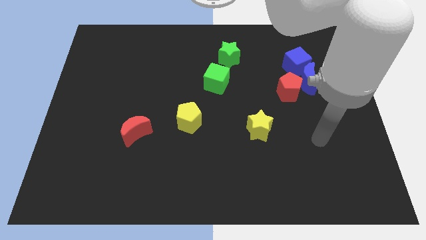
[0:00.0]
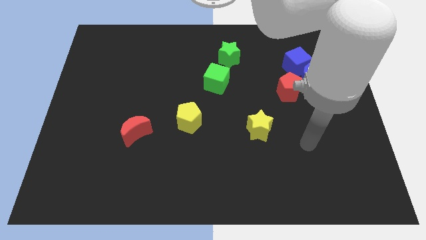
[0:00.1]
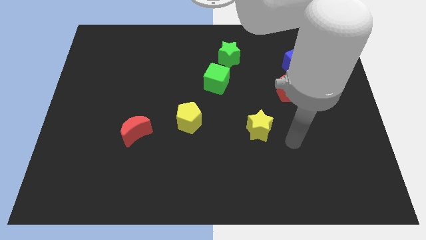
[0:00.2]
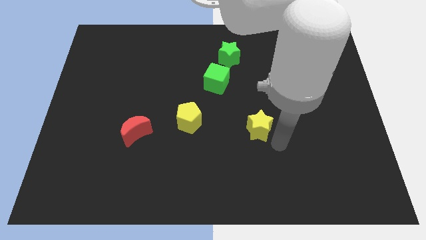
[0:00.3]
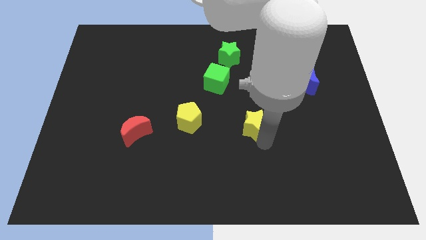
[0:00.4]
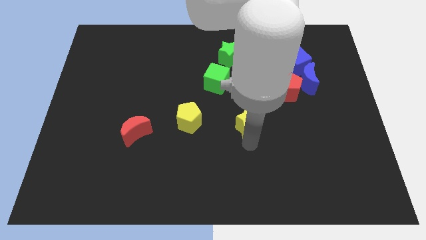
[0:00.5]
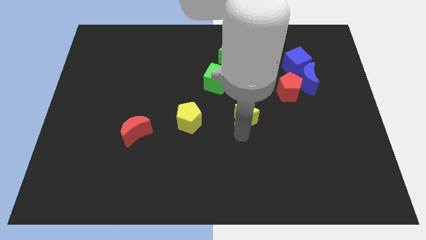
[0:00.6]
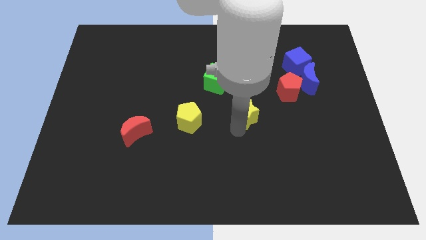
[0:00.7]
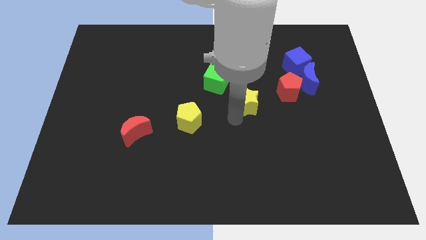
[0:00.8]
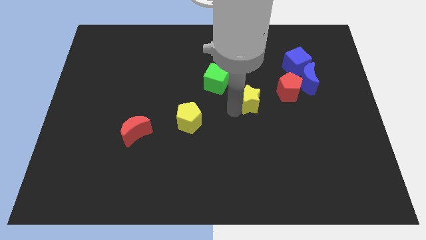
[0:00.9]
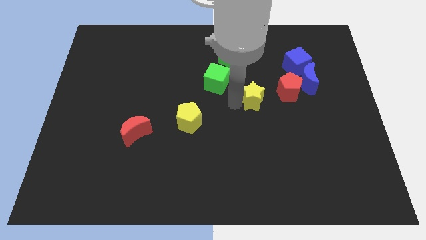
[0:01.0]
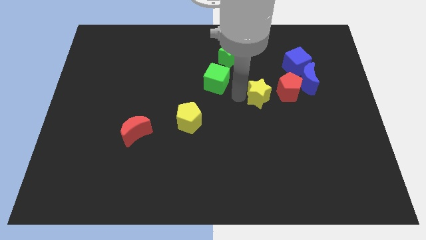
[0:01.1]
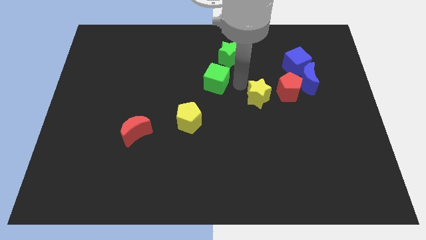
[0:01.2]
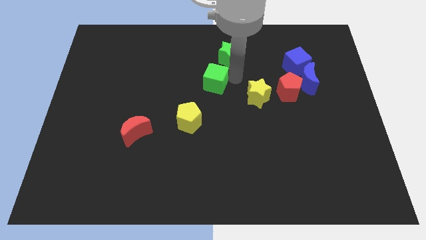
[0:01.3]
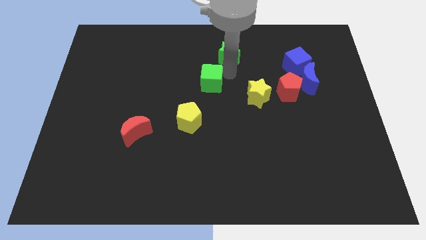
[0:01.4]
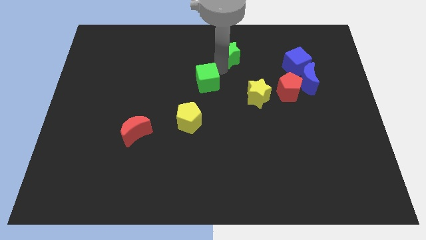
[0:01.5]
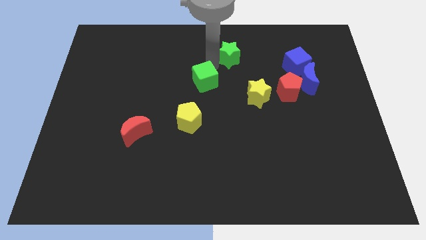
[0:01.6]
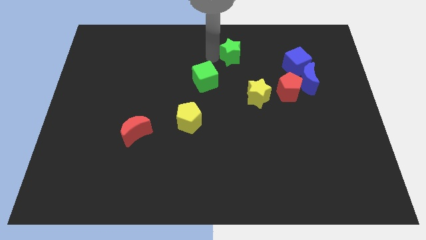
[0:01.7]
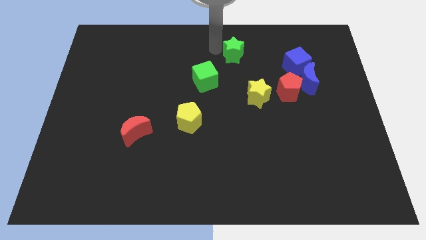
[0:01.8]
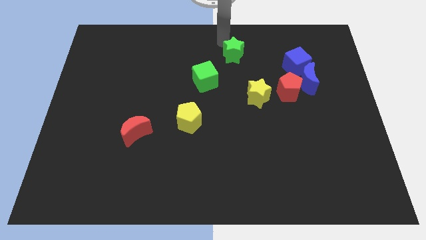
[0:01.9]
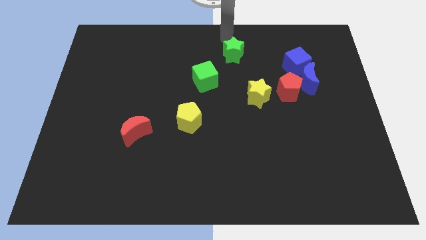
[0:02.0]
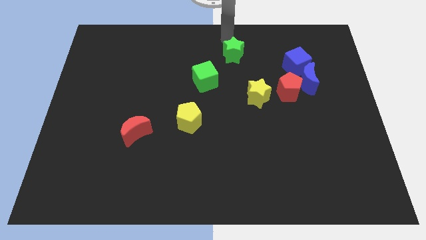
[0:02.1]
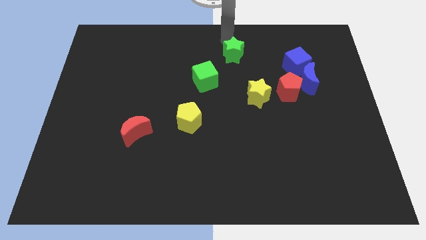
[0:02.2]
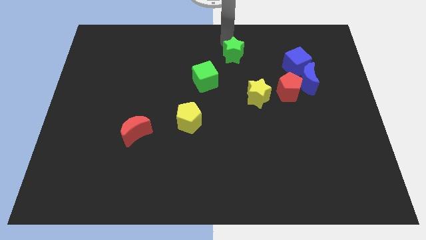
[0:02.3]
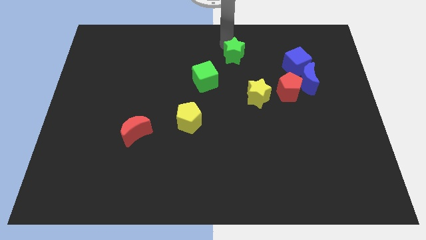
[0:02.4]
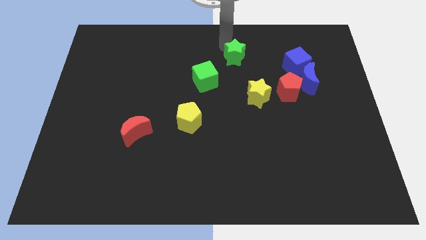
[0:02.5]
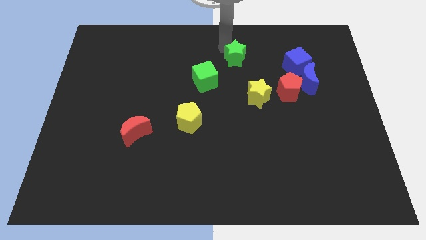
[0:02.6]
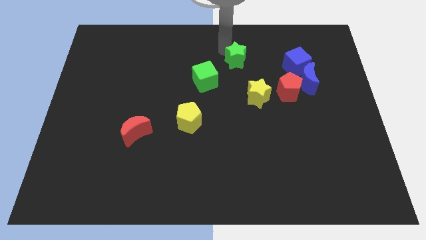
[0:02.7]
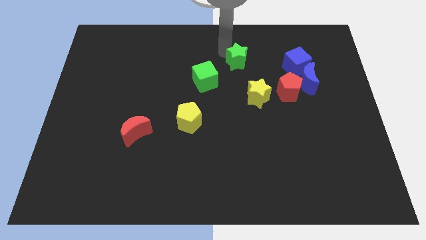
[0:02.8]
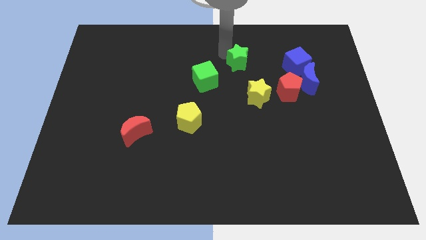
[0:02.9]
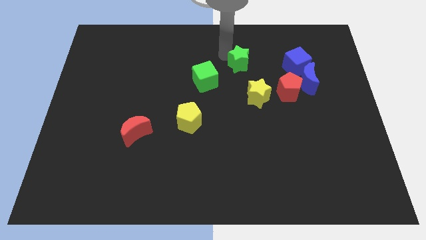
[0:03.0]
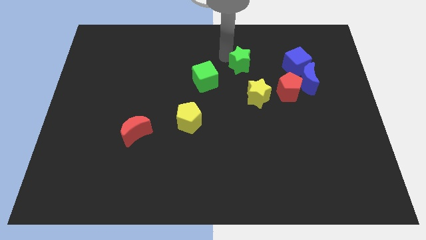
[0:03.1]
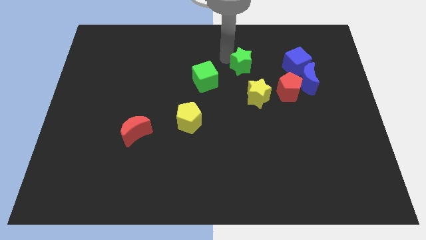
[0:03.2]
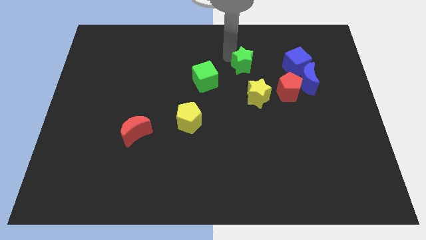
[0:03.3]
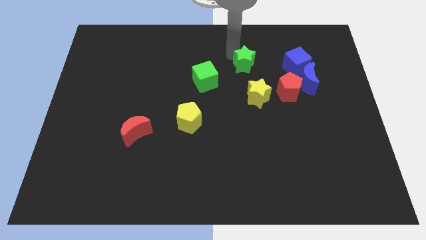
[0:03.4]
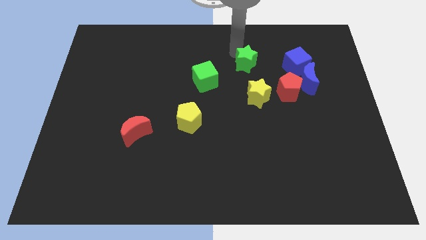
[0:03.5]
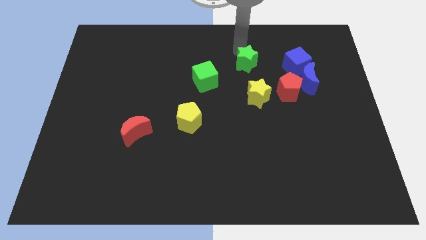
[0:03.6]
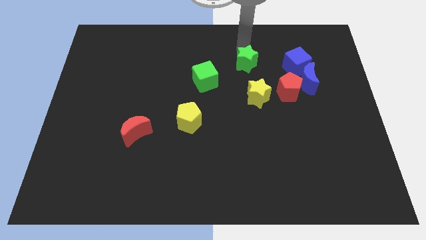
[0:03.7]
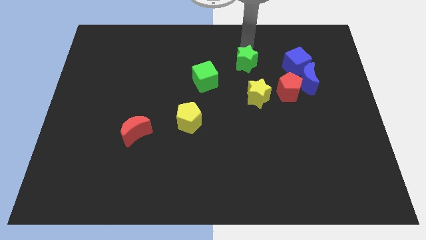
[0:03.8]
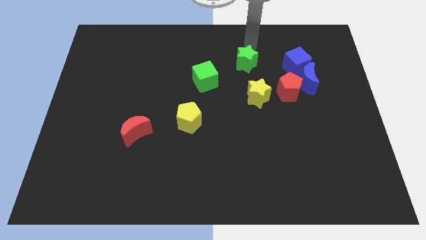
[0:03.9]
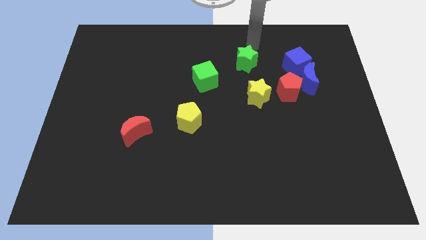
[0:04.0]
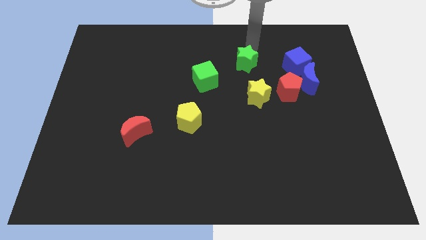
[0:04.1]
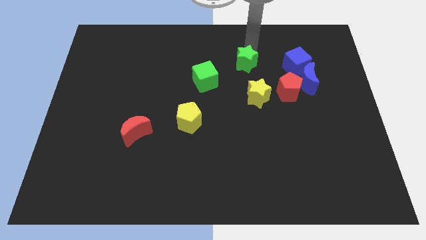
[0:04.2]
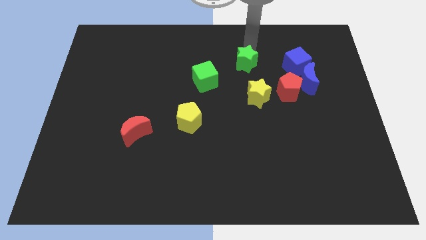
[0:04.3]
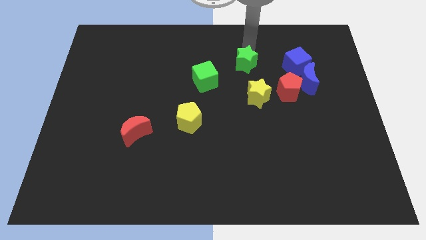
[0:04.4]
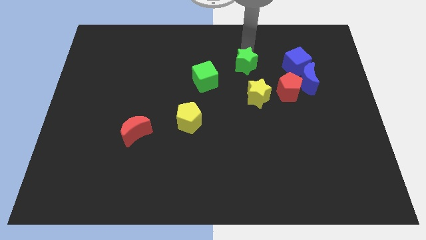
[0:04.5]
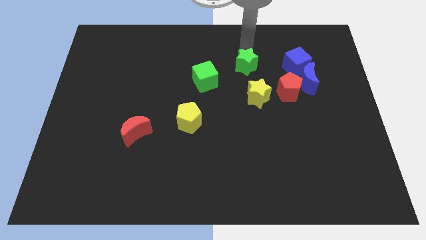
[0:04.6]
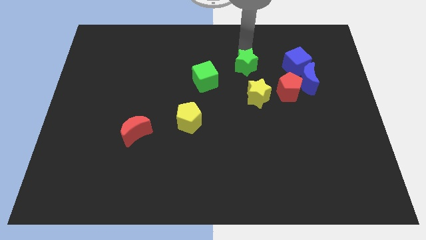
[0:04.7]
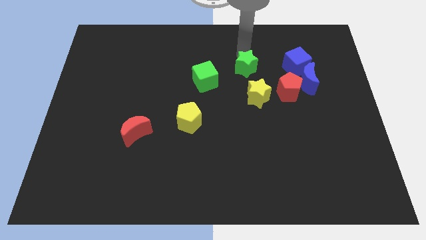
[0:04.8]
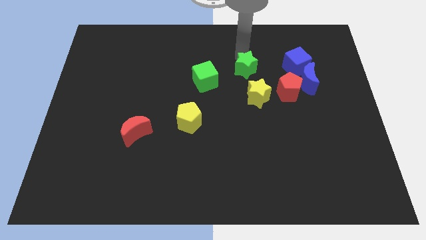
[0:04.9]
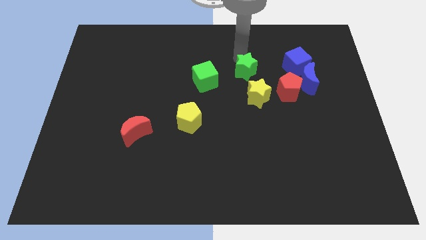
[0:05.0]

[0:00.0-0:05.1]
move the green star to the middle of the board

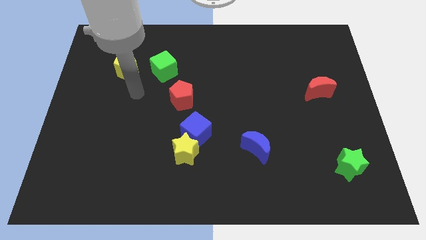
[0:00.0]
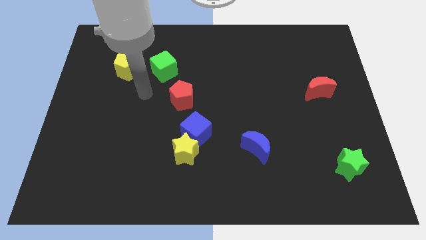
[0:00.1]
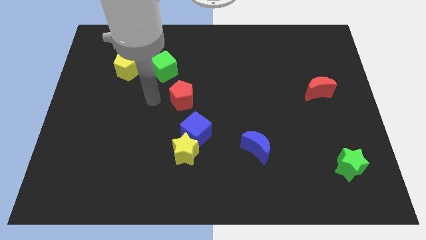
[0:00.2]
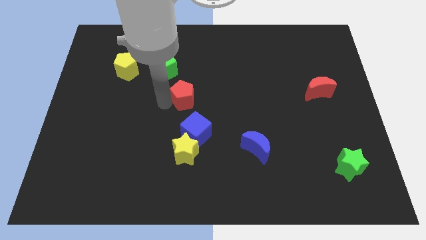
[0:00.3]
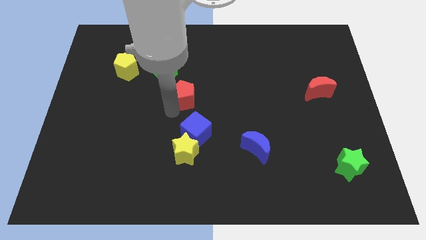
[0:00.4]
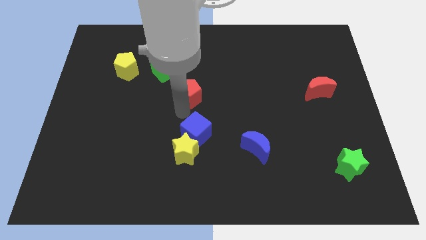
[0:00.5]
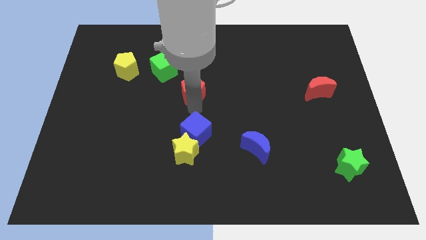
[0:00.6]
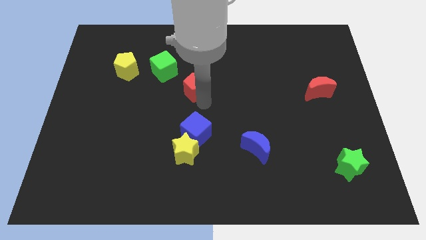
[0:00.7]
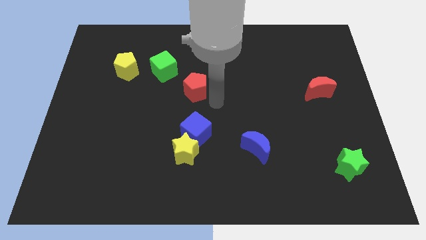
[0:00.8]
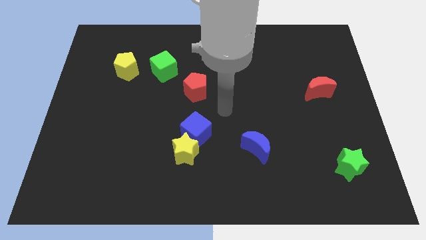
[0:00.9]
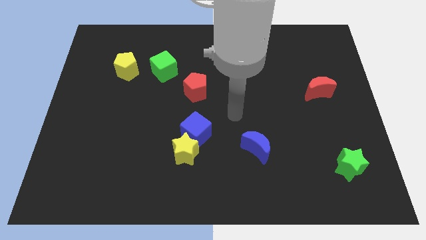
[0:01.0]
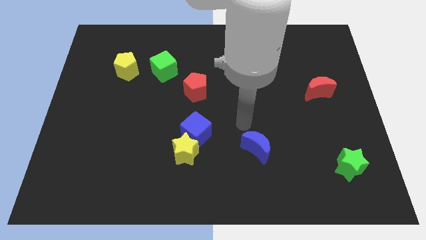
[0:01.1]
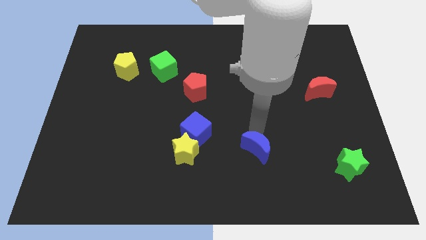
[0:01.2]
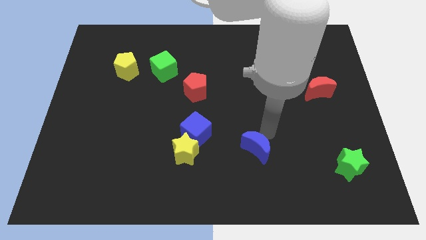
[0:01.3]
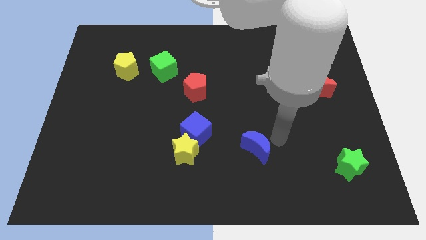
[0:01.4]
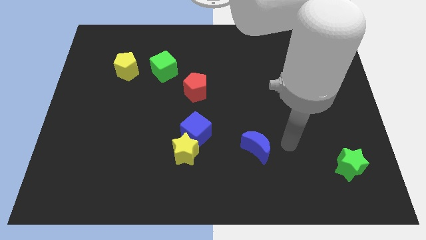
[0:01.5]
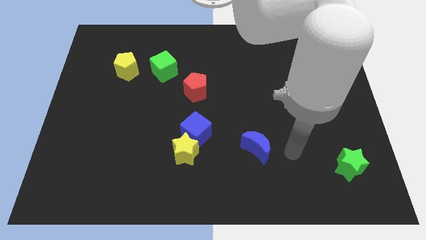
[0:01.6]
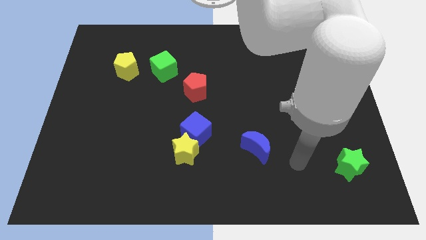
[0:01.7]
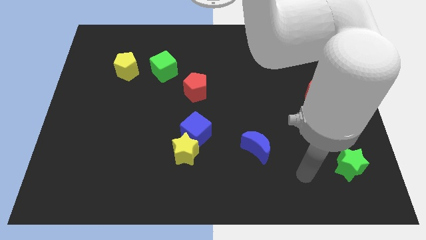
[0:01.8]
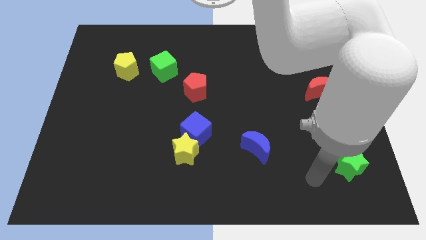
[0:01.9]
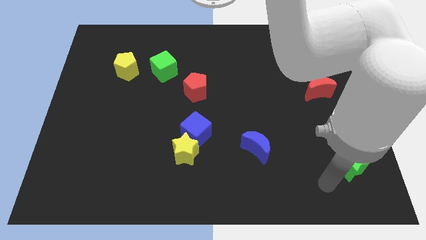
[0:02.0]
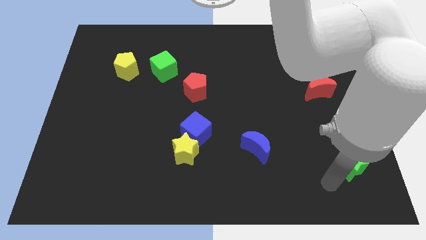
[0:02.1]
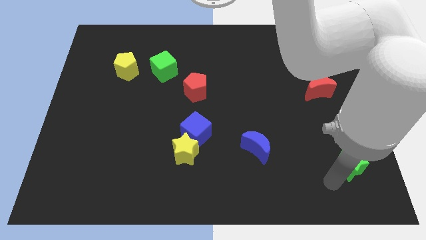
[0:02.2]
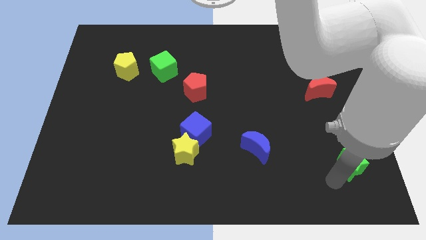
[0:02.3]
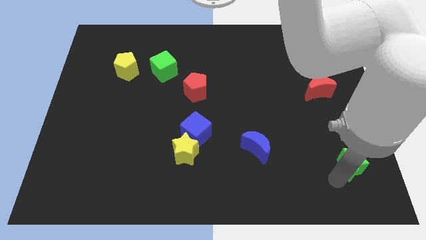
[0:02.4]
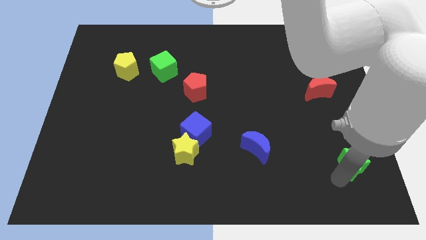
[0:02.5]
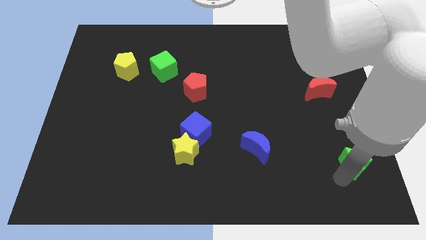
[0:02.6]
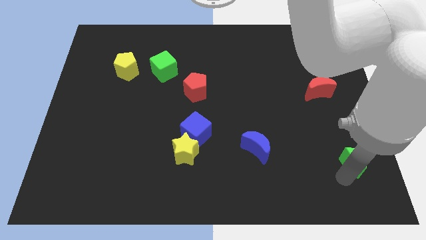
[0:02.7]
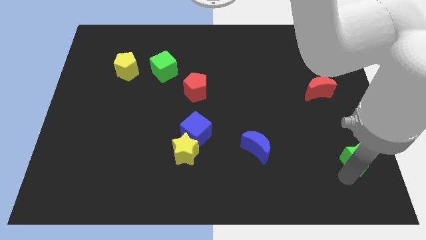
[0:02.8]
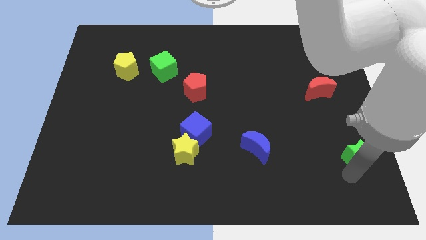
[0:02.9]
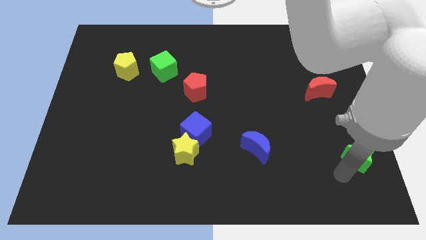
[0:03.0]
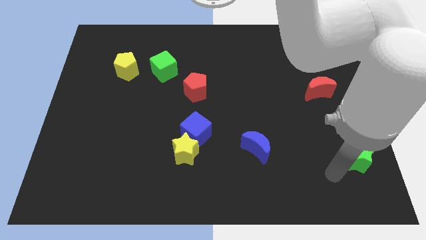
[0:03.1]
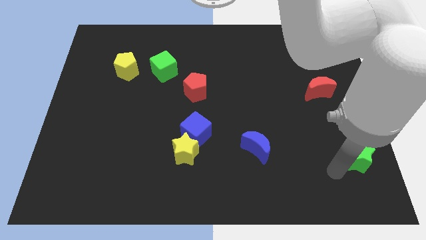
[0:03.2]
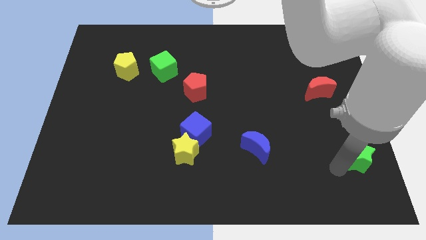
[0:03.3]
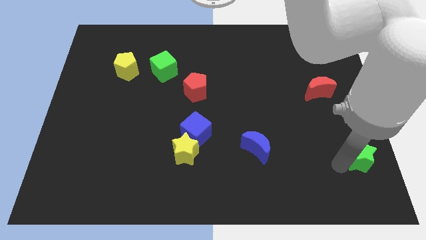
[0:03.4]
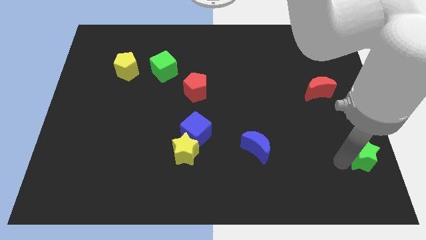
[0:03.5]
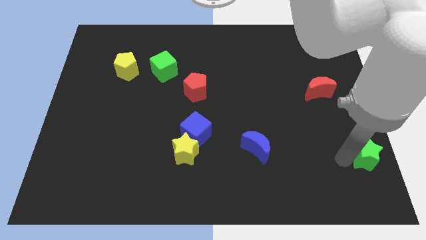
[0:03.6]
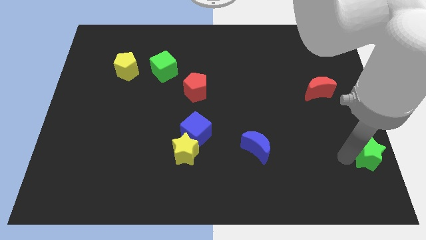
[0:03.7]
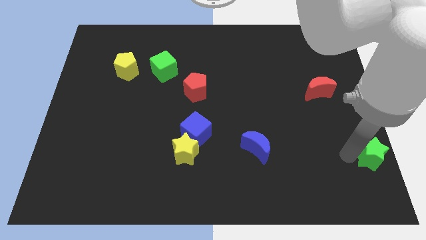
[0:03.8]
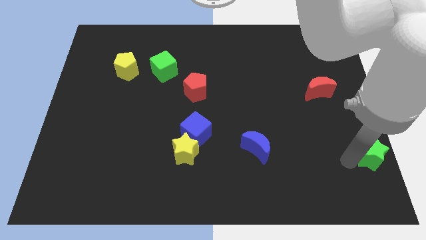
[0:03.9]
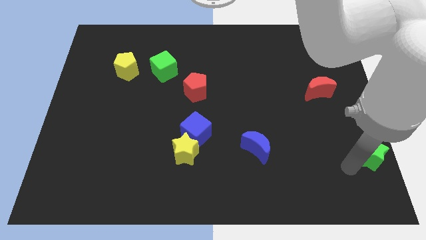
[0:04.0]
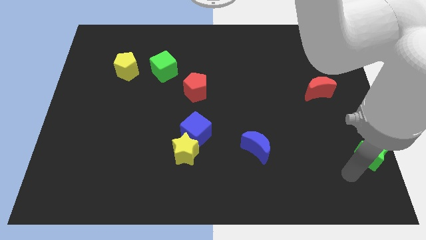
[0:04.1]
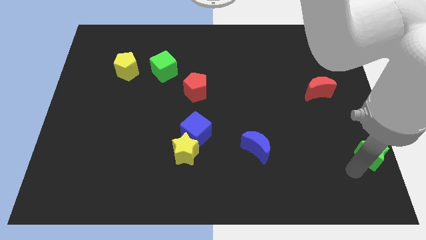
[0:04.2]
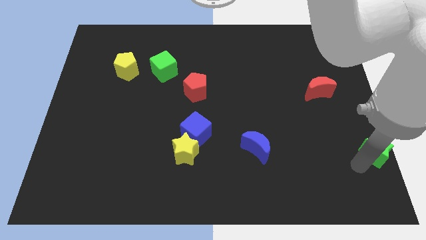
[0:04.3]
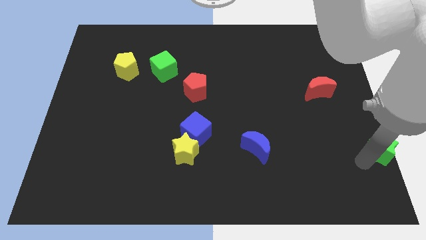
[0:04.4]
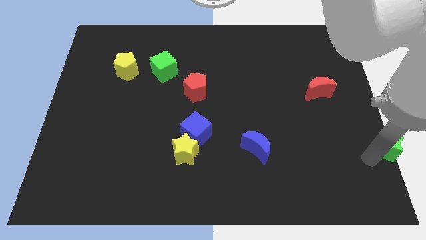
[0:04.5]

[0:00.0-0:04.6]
slide the green star to the right side
